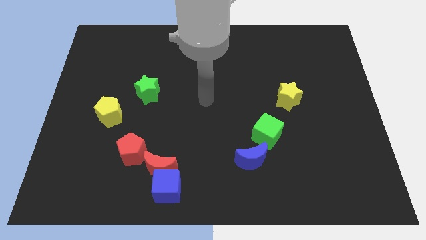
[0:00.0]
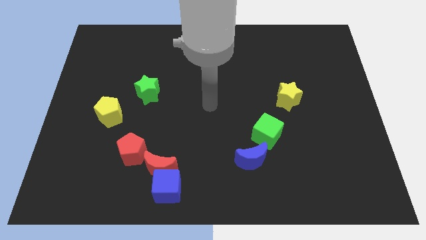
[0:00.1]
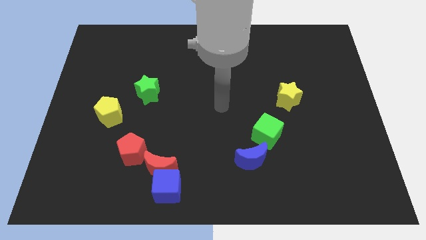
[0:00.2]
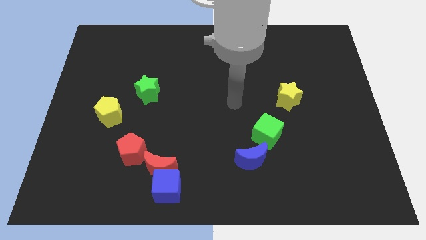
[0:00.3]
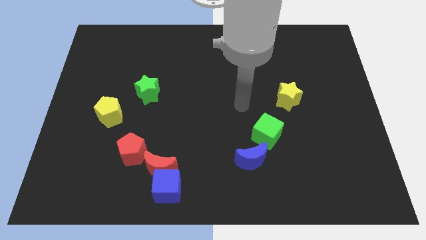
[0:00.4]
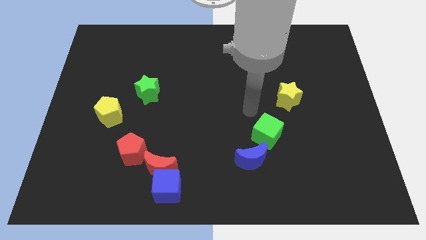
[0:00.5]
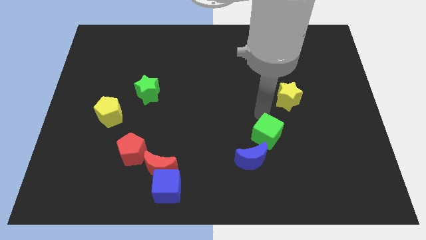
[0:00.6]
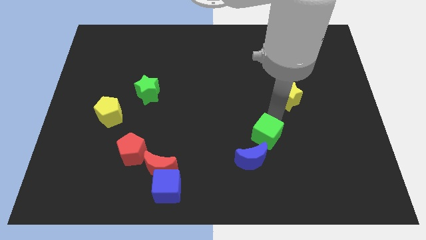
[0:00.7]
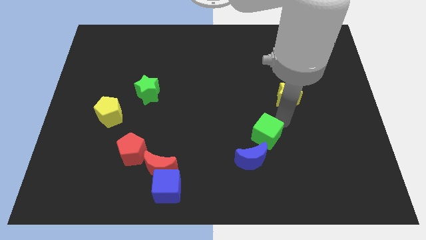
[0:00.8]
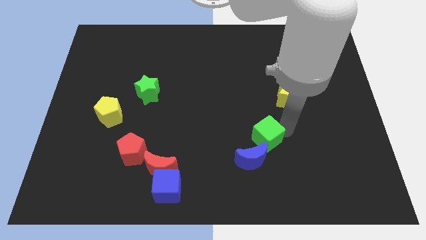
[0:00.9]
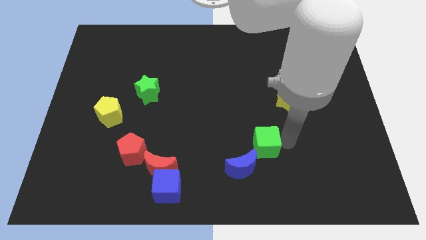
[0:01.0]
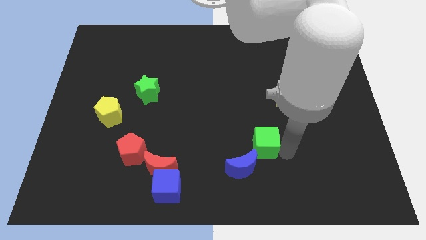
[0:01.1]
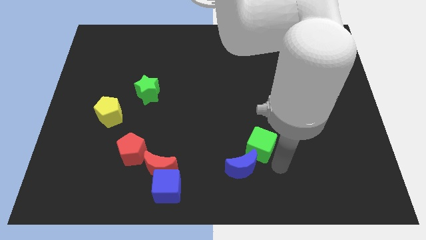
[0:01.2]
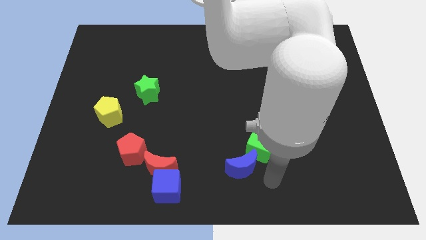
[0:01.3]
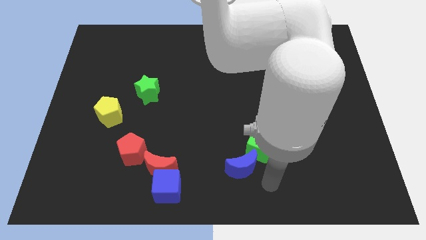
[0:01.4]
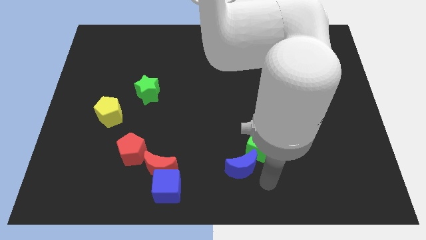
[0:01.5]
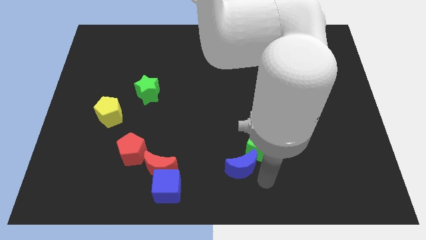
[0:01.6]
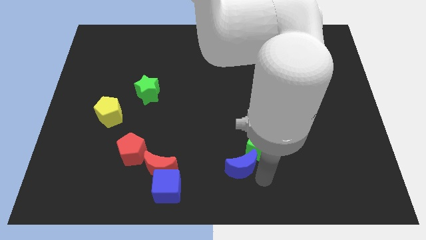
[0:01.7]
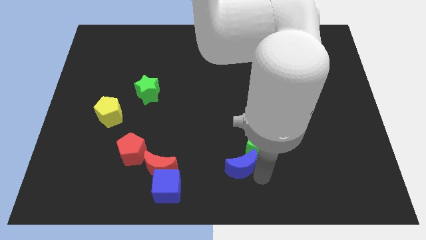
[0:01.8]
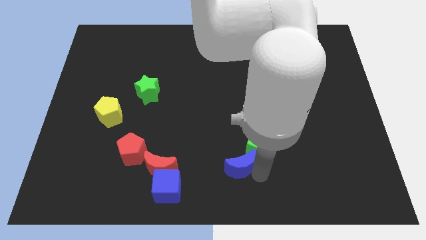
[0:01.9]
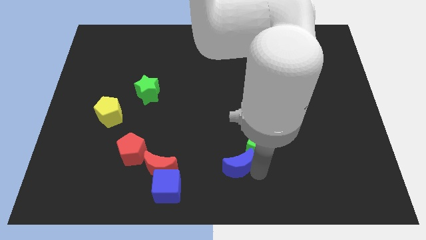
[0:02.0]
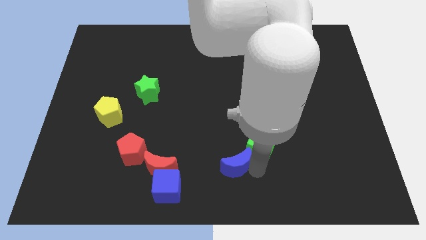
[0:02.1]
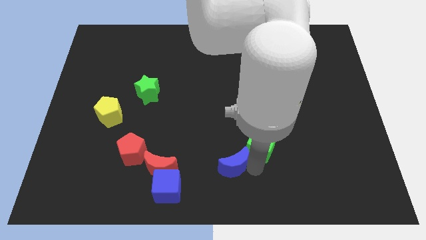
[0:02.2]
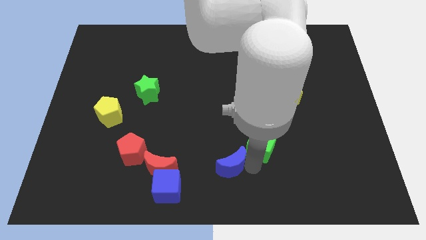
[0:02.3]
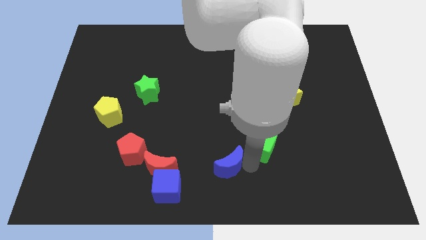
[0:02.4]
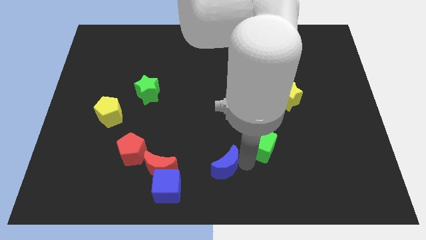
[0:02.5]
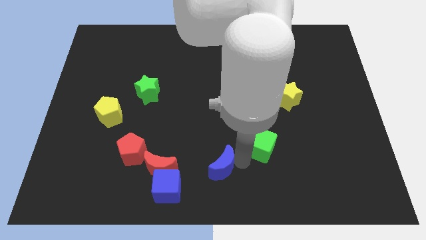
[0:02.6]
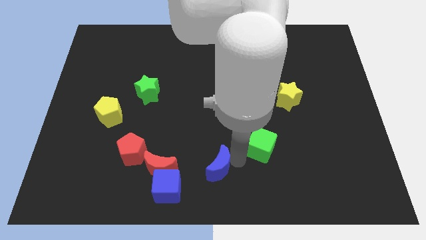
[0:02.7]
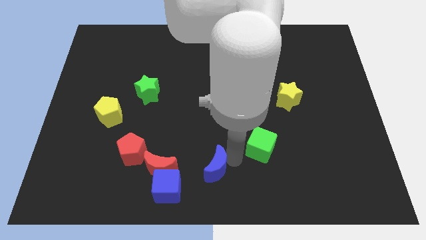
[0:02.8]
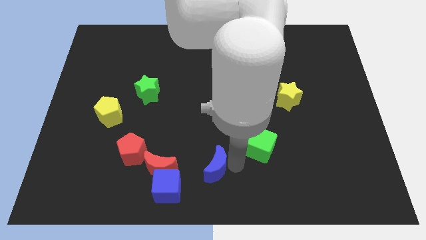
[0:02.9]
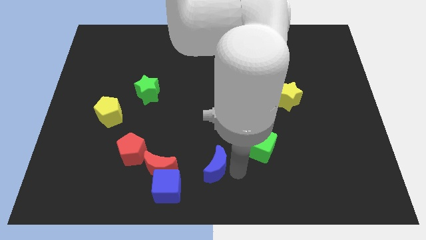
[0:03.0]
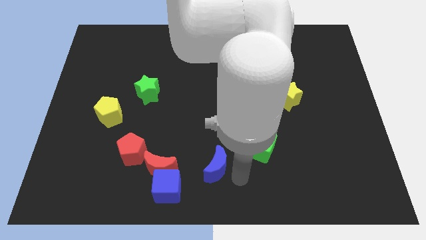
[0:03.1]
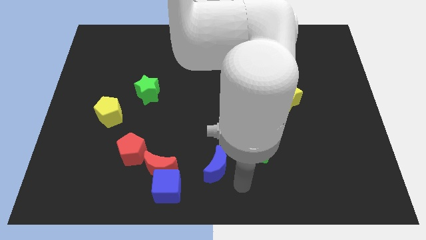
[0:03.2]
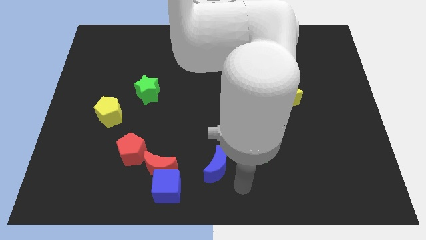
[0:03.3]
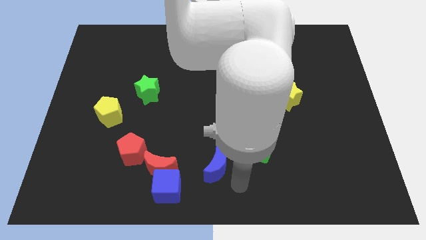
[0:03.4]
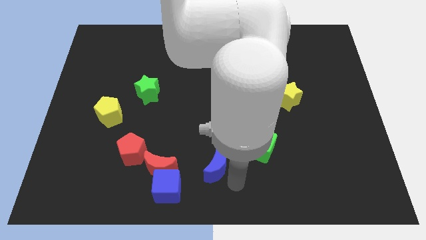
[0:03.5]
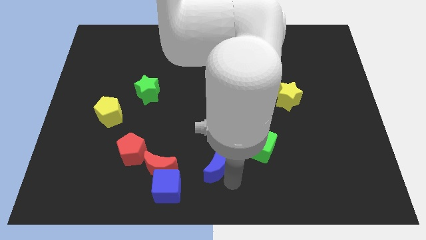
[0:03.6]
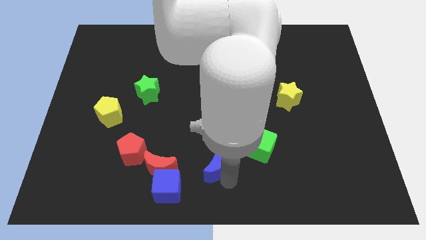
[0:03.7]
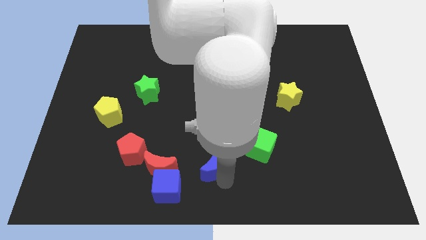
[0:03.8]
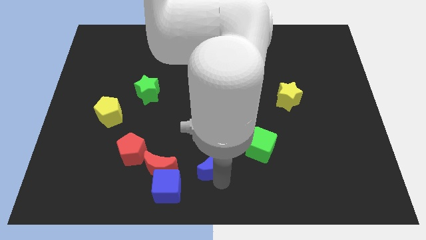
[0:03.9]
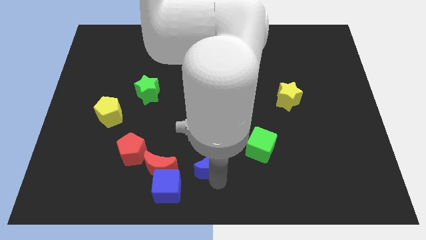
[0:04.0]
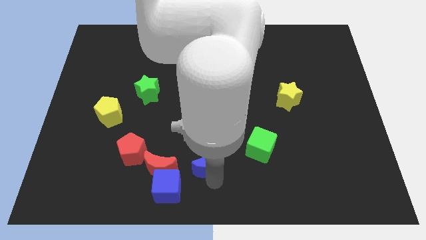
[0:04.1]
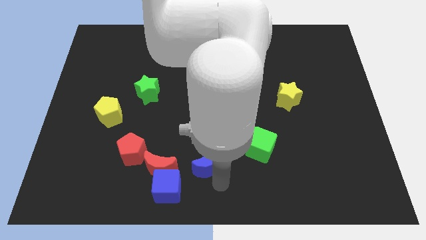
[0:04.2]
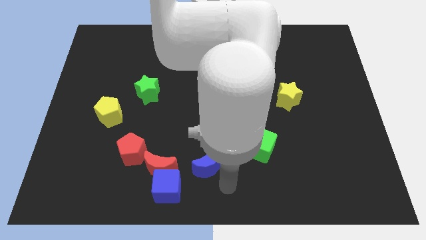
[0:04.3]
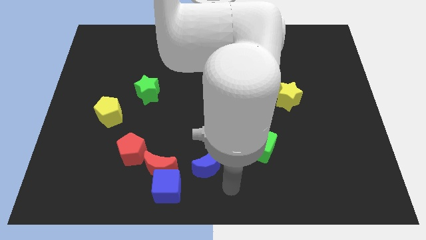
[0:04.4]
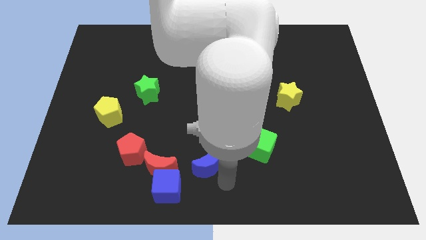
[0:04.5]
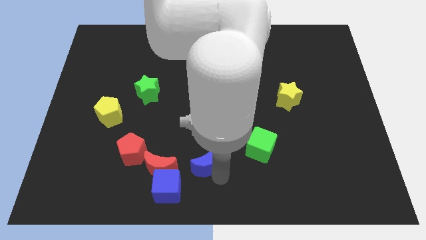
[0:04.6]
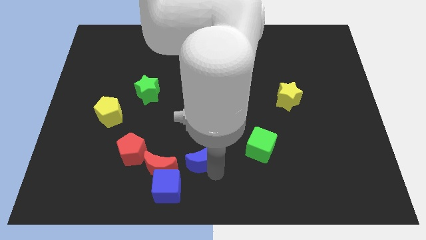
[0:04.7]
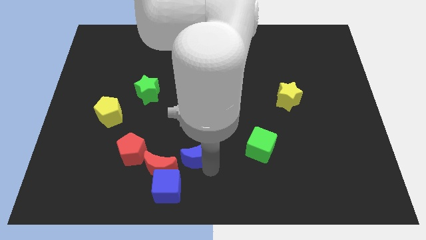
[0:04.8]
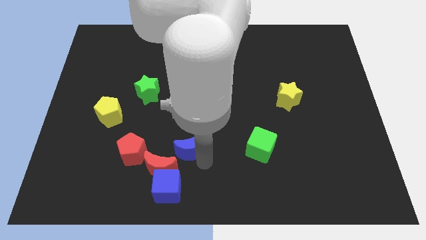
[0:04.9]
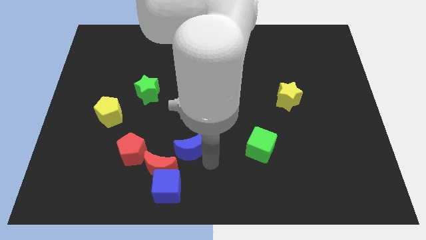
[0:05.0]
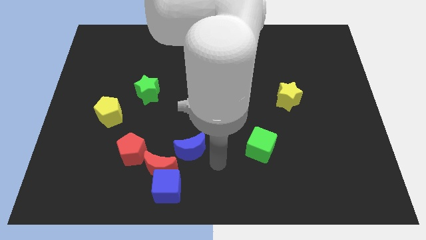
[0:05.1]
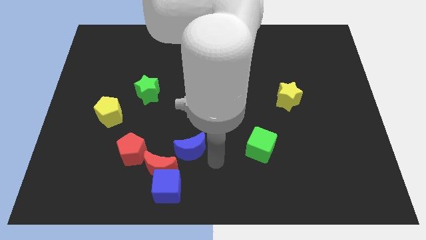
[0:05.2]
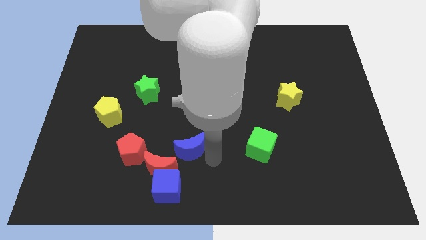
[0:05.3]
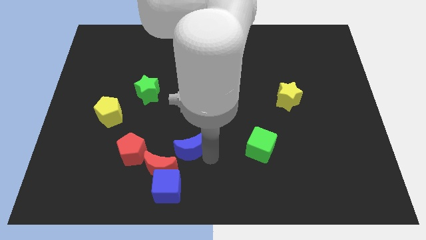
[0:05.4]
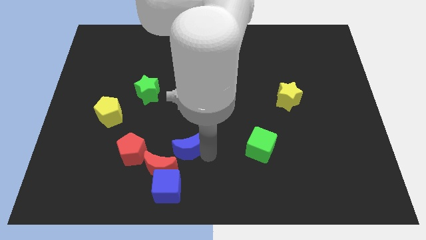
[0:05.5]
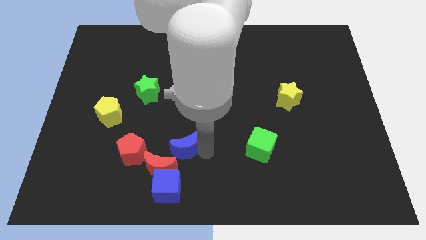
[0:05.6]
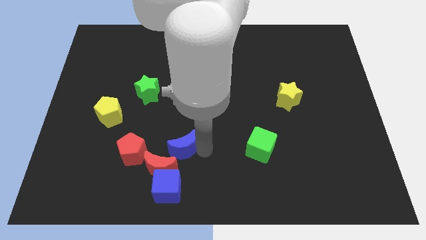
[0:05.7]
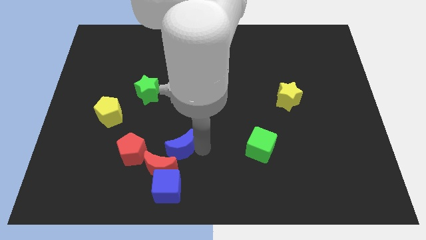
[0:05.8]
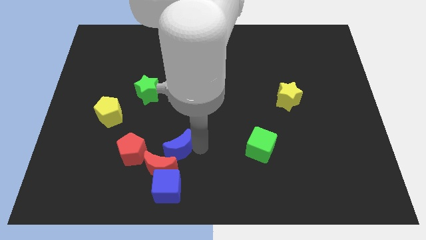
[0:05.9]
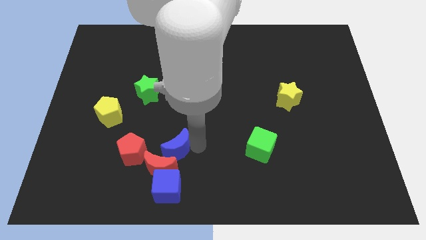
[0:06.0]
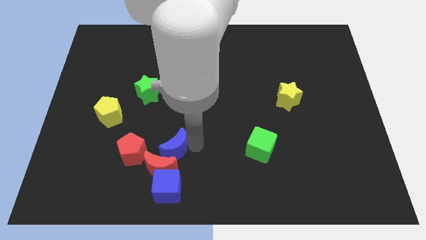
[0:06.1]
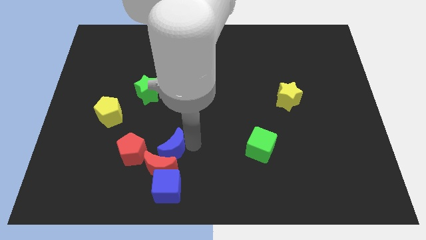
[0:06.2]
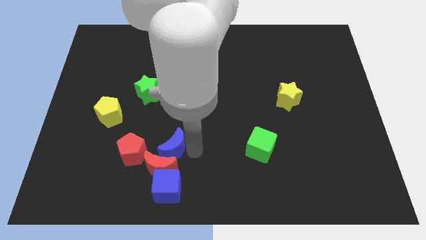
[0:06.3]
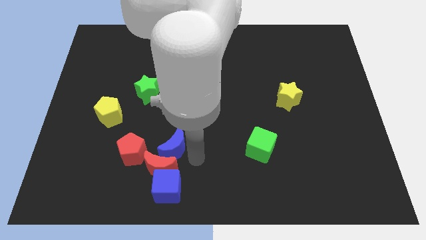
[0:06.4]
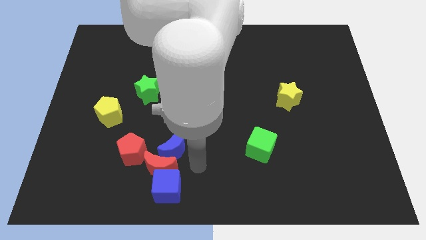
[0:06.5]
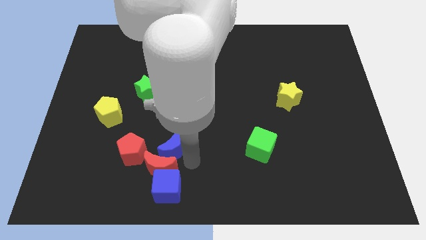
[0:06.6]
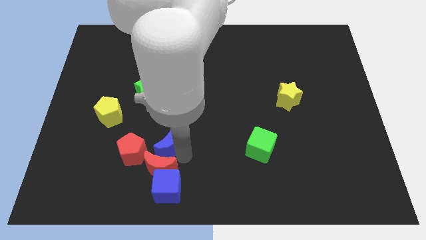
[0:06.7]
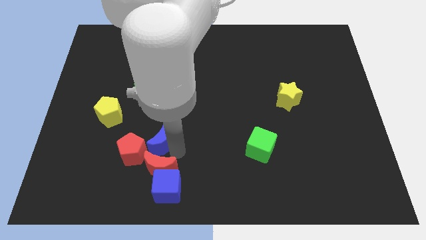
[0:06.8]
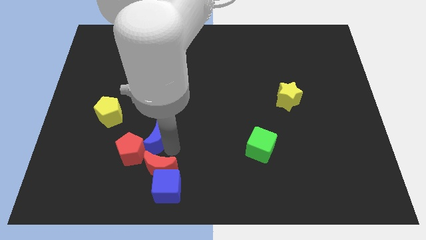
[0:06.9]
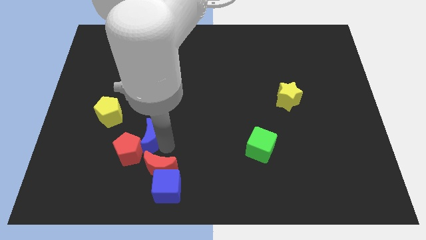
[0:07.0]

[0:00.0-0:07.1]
push the blue moon to the left

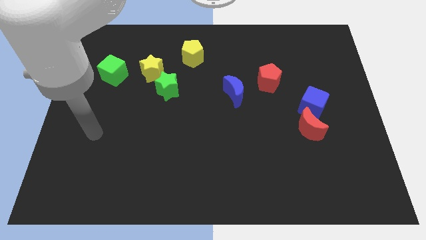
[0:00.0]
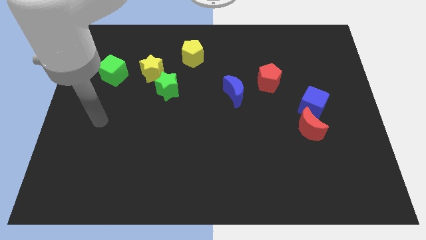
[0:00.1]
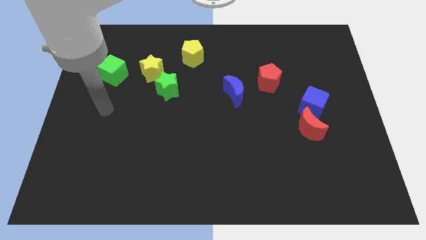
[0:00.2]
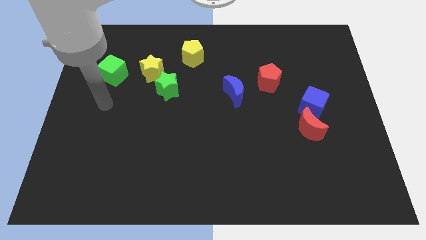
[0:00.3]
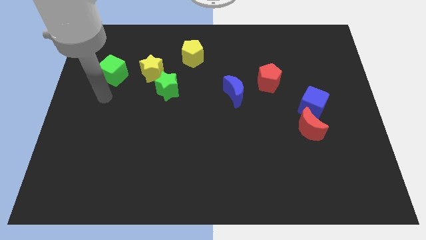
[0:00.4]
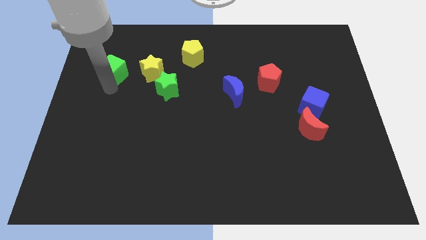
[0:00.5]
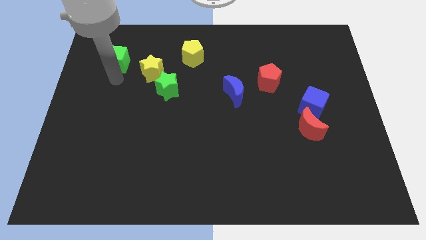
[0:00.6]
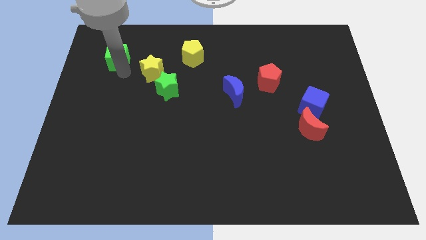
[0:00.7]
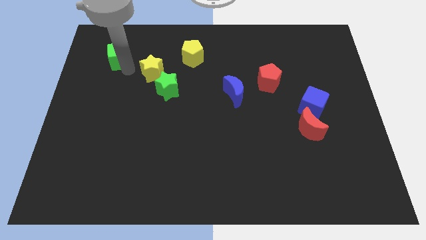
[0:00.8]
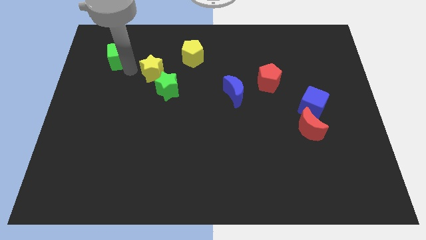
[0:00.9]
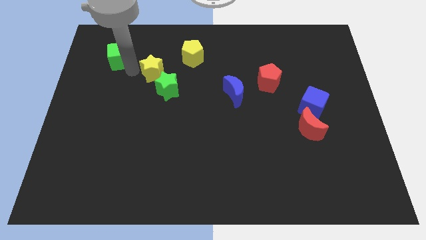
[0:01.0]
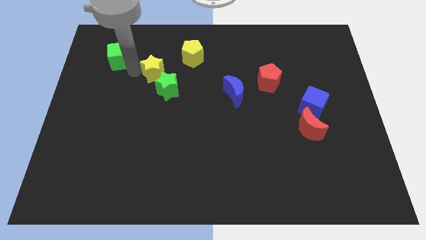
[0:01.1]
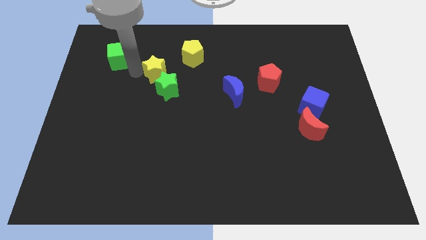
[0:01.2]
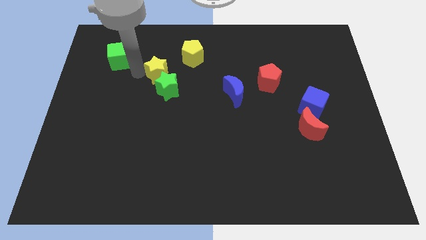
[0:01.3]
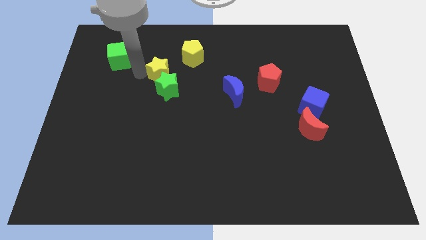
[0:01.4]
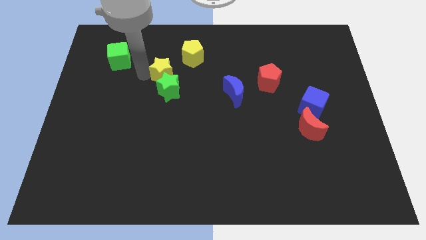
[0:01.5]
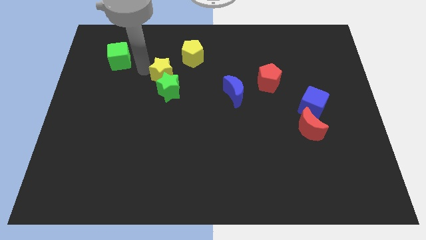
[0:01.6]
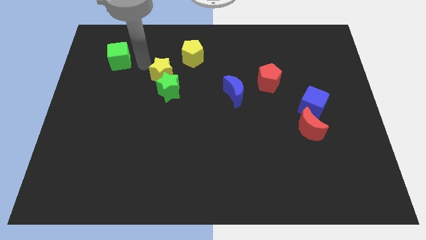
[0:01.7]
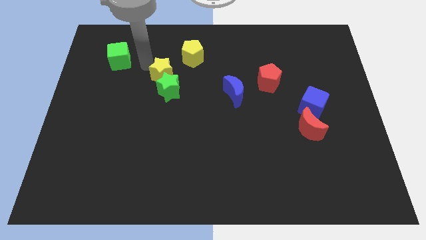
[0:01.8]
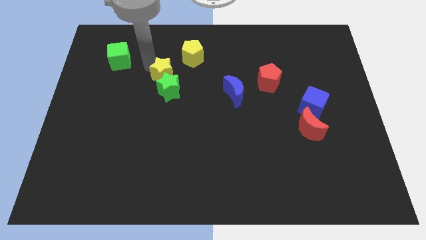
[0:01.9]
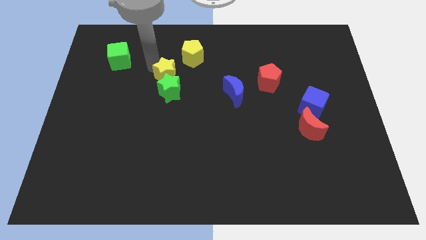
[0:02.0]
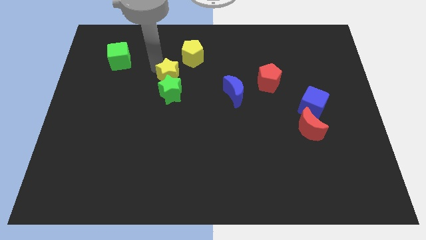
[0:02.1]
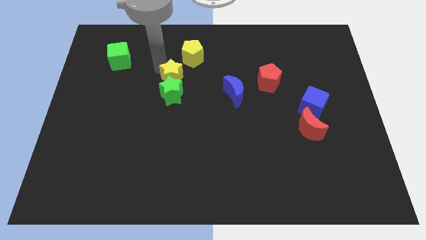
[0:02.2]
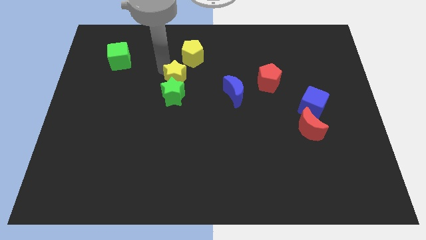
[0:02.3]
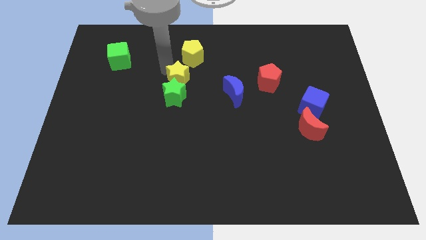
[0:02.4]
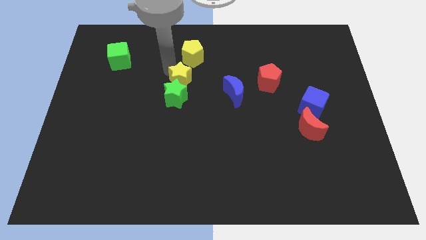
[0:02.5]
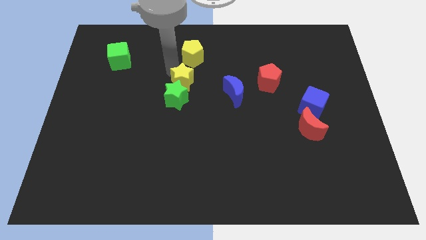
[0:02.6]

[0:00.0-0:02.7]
move the yellow star a little downwards and to the right diagonally
